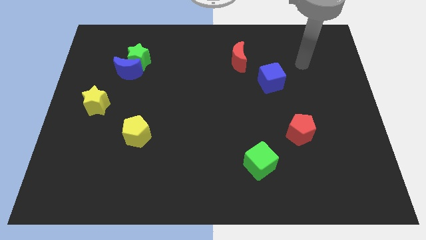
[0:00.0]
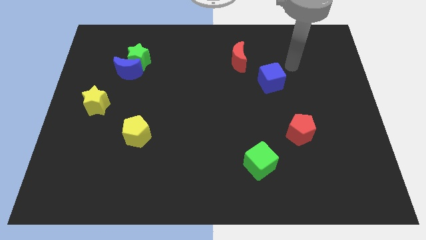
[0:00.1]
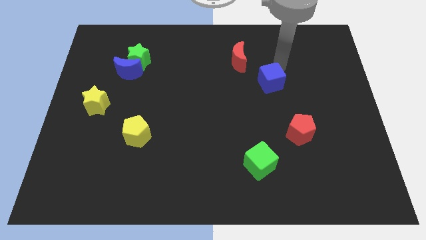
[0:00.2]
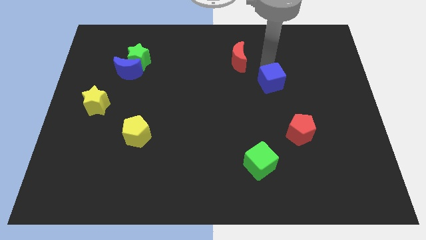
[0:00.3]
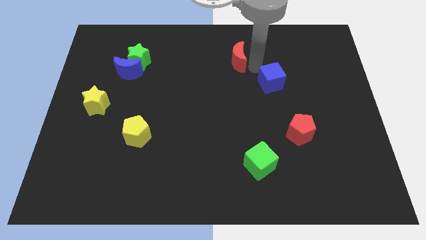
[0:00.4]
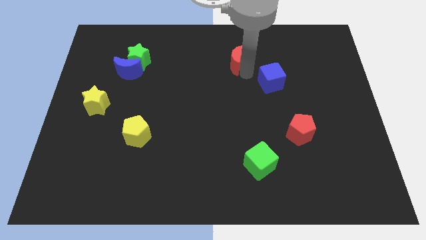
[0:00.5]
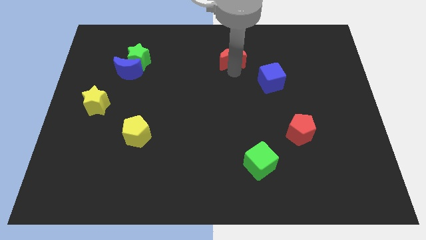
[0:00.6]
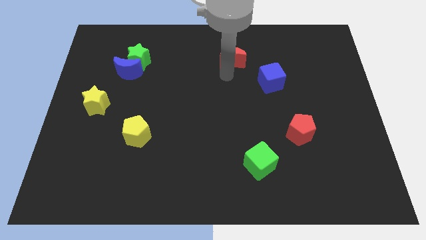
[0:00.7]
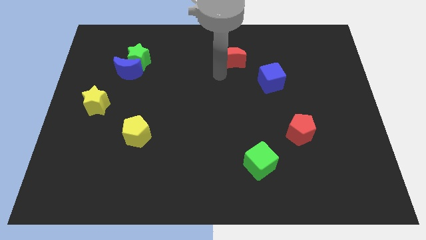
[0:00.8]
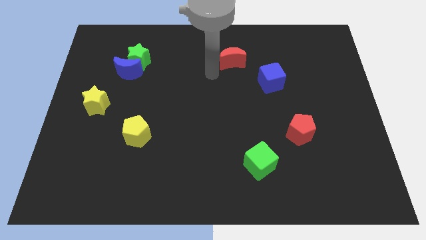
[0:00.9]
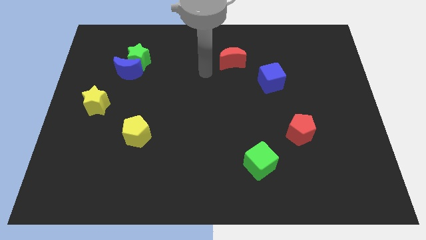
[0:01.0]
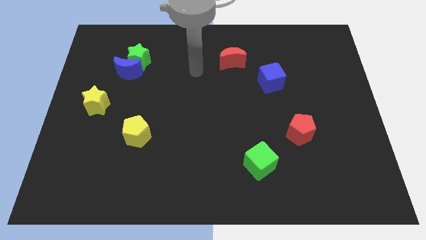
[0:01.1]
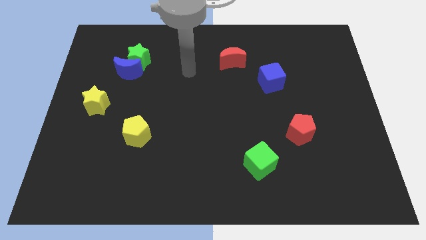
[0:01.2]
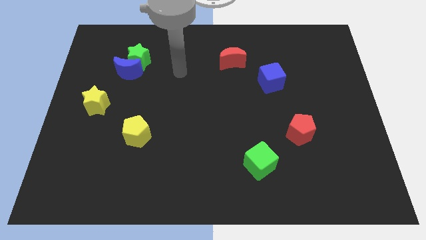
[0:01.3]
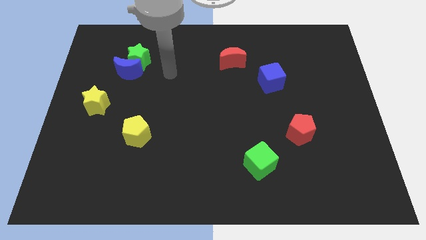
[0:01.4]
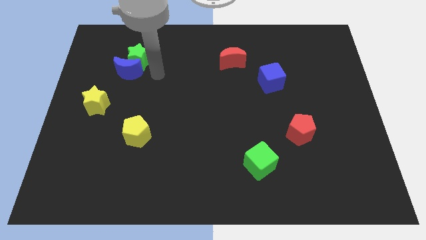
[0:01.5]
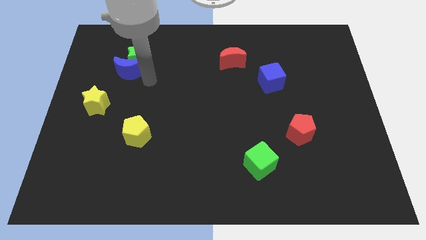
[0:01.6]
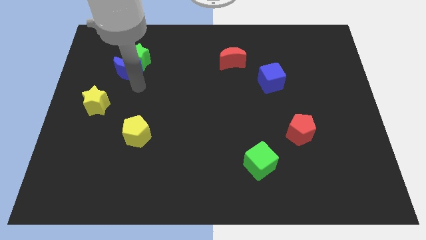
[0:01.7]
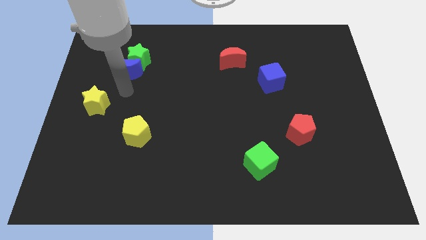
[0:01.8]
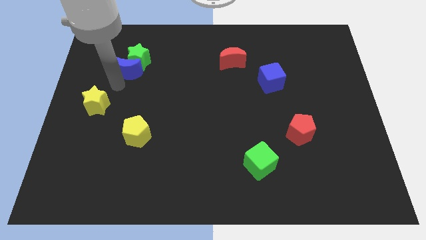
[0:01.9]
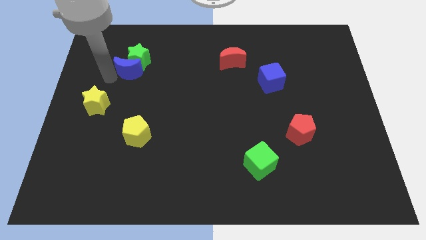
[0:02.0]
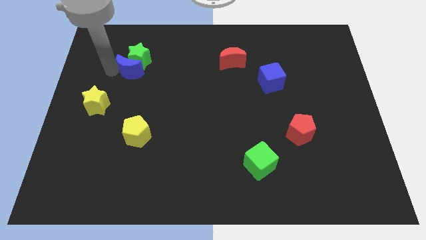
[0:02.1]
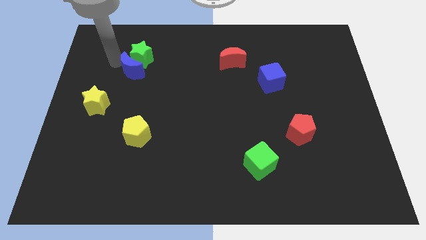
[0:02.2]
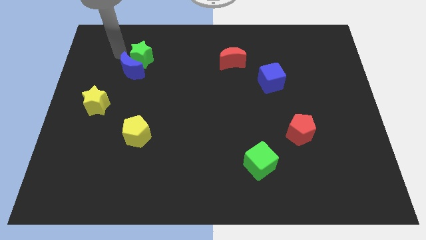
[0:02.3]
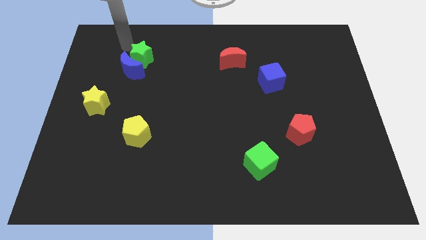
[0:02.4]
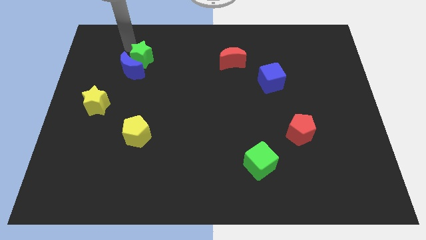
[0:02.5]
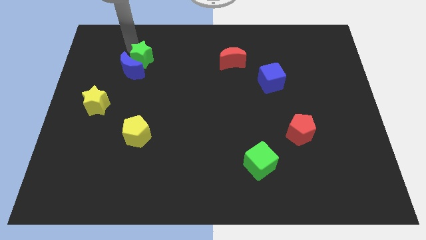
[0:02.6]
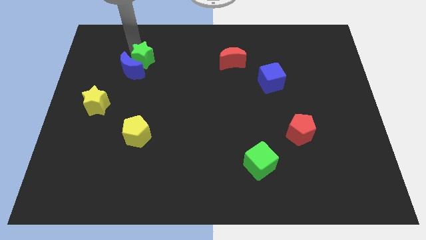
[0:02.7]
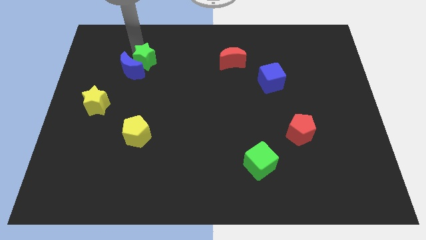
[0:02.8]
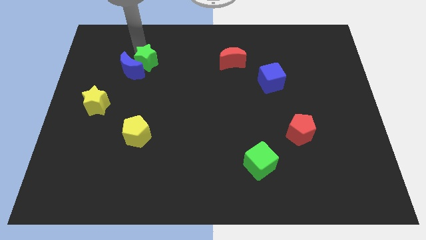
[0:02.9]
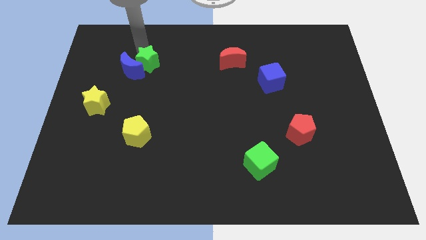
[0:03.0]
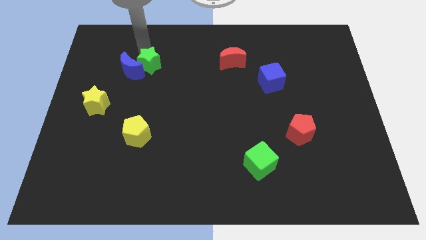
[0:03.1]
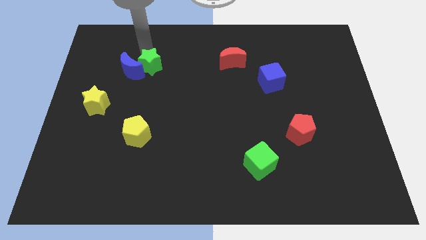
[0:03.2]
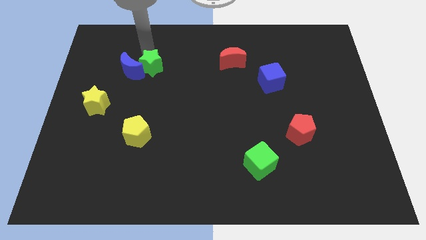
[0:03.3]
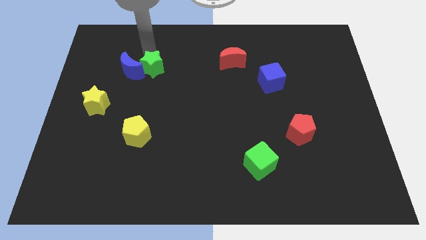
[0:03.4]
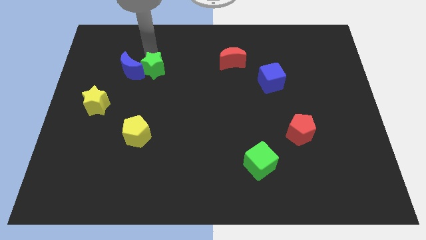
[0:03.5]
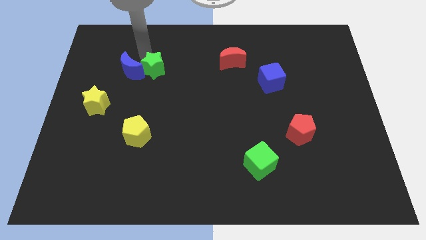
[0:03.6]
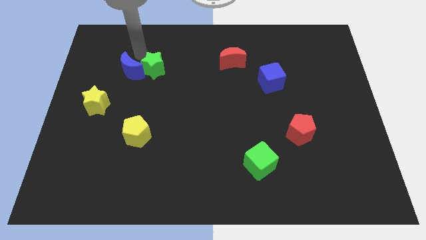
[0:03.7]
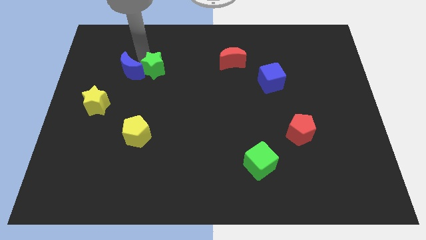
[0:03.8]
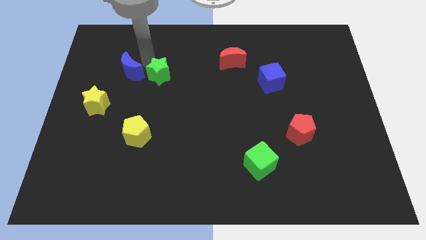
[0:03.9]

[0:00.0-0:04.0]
push the green star diagonally downwards and right a bit

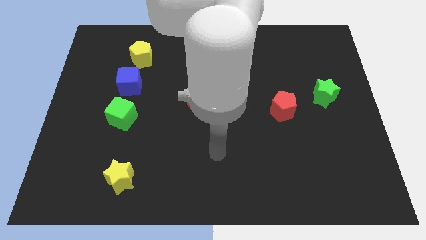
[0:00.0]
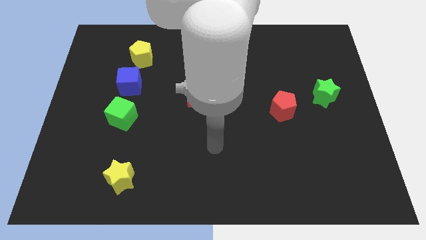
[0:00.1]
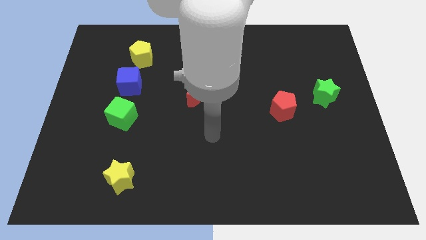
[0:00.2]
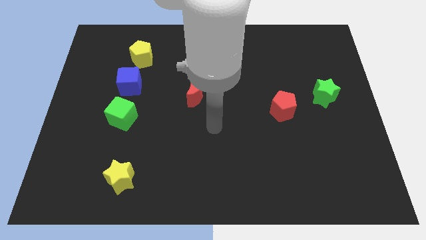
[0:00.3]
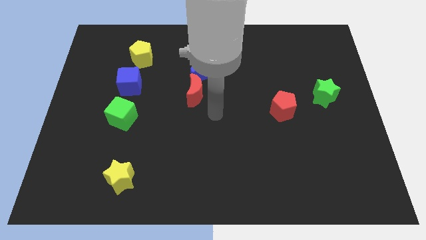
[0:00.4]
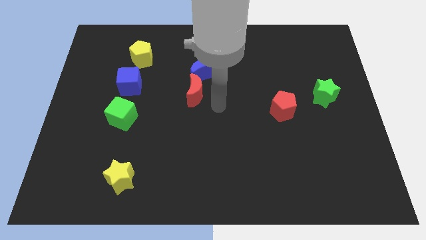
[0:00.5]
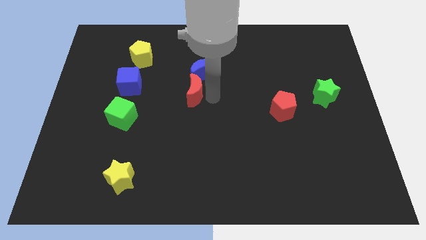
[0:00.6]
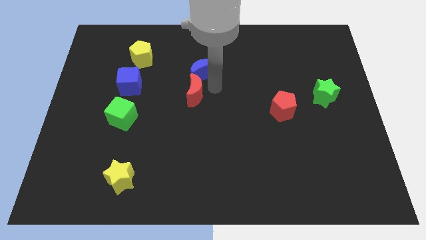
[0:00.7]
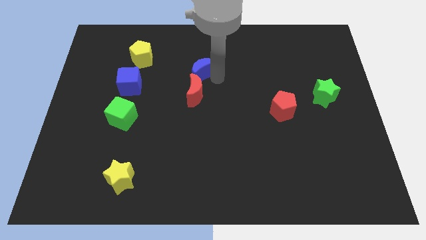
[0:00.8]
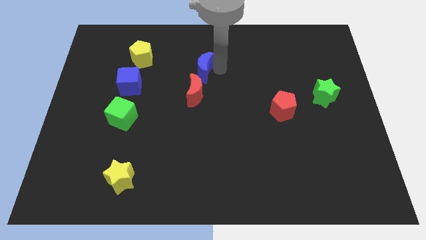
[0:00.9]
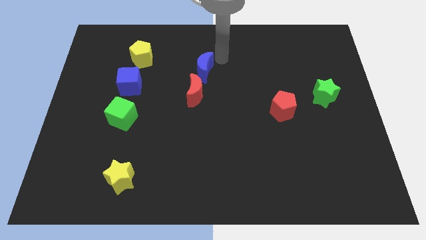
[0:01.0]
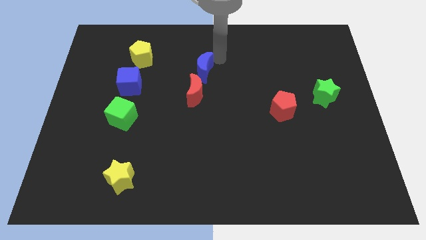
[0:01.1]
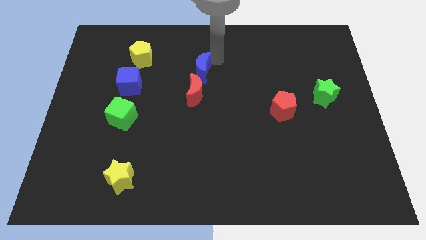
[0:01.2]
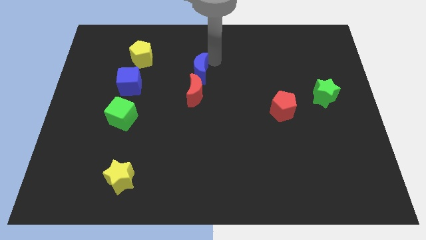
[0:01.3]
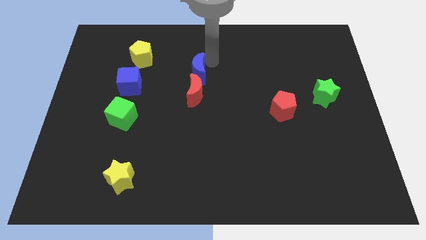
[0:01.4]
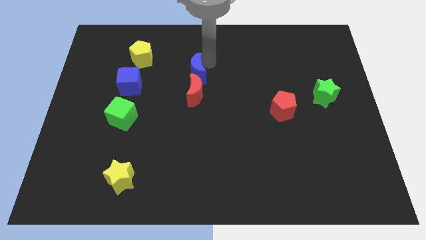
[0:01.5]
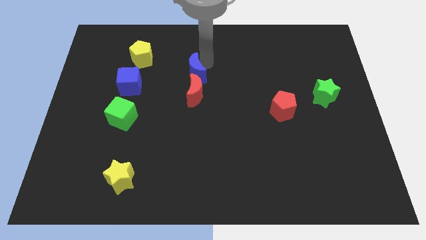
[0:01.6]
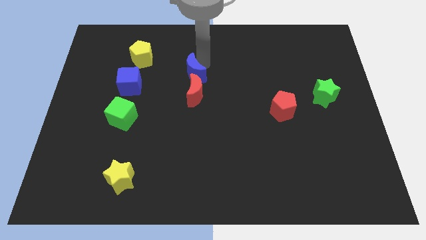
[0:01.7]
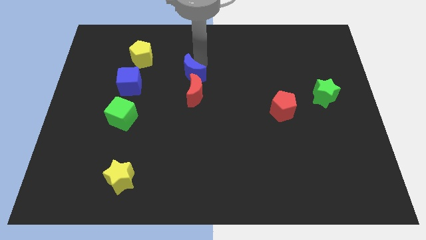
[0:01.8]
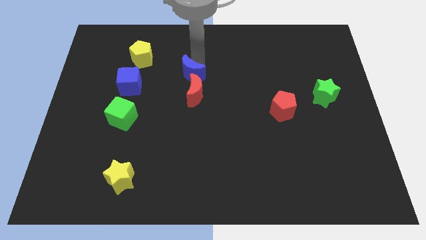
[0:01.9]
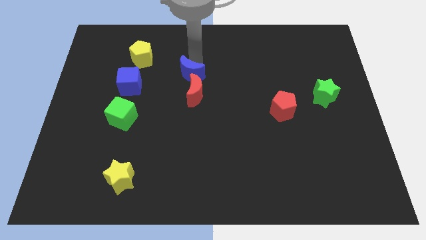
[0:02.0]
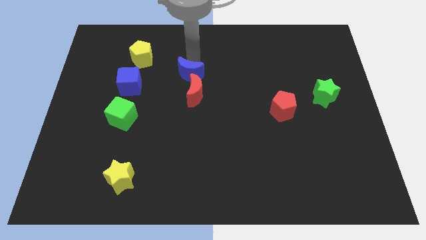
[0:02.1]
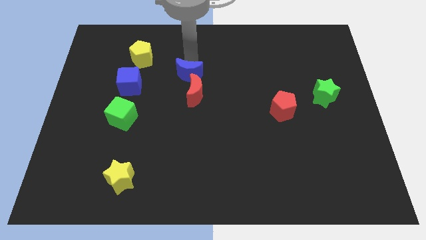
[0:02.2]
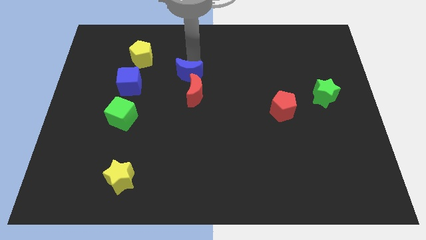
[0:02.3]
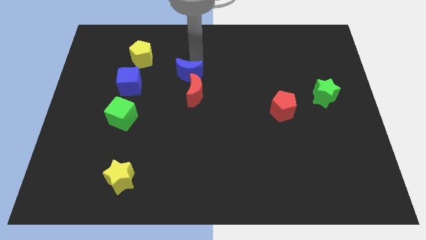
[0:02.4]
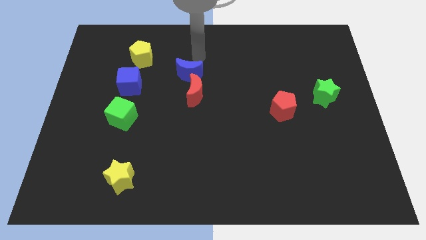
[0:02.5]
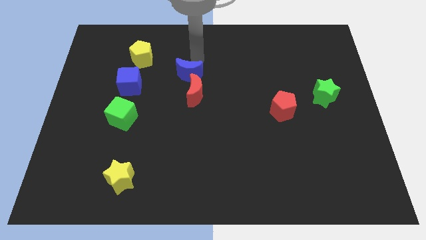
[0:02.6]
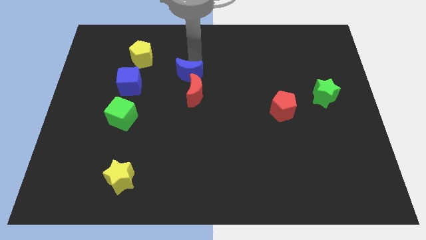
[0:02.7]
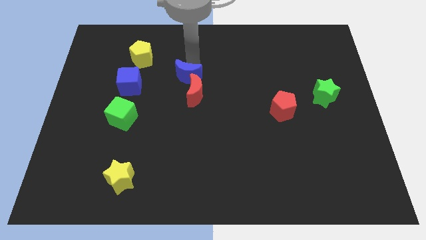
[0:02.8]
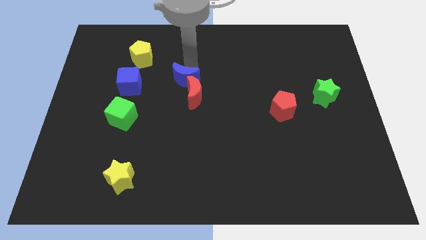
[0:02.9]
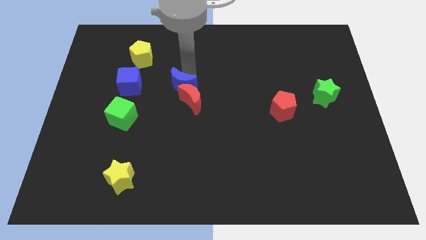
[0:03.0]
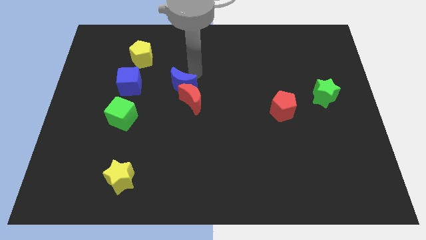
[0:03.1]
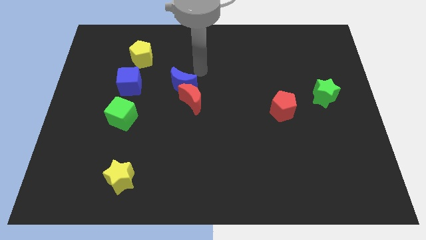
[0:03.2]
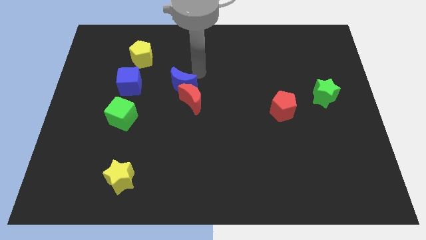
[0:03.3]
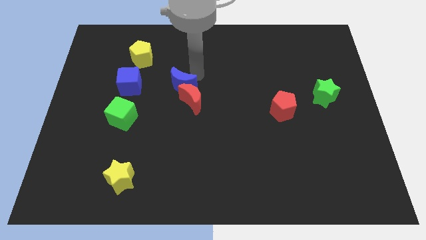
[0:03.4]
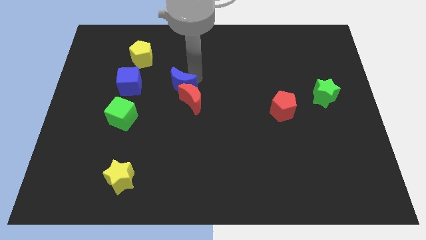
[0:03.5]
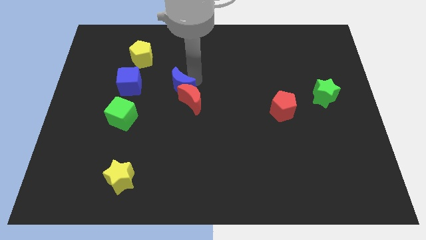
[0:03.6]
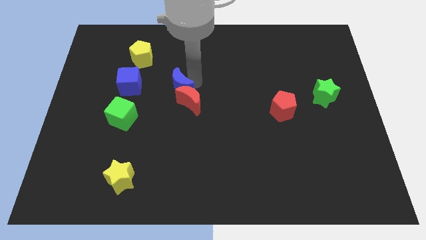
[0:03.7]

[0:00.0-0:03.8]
slightly slide the blue moon diagonally down and to the left

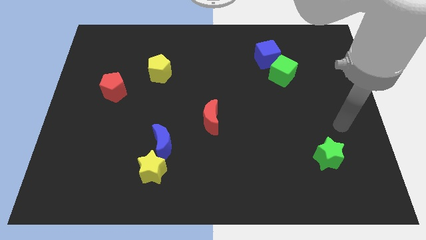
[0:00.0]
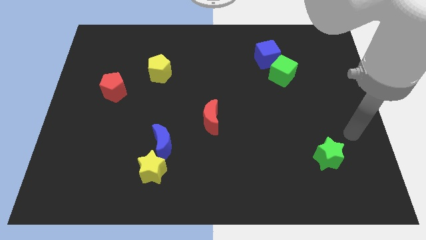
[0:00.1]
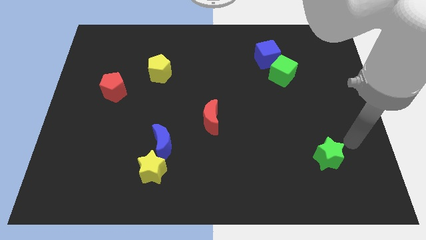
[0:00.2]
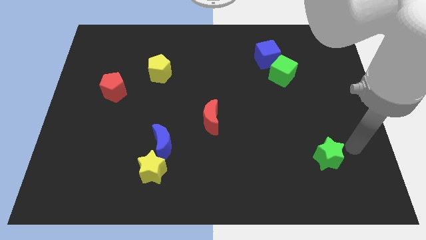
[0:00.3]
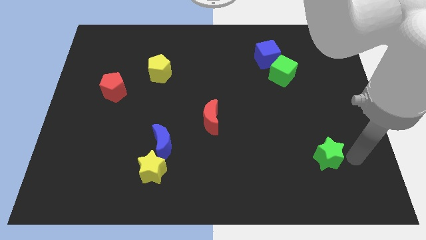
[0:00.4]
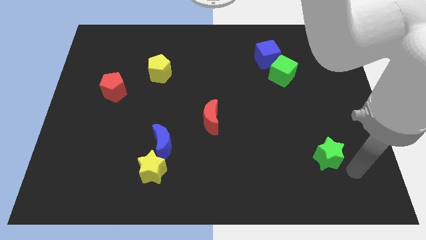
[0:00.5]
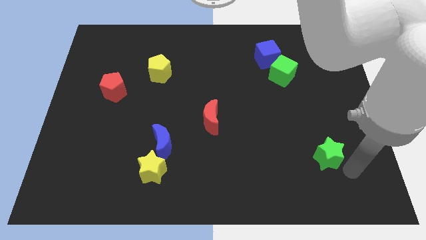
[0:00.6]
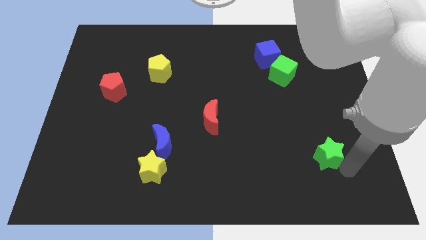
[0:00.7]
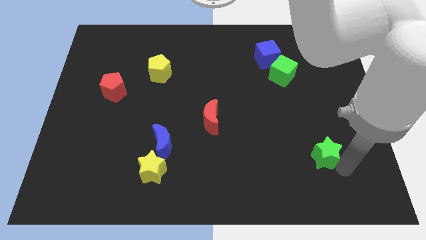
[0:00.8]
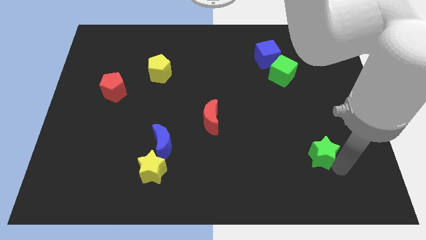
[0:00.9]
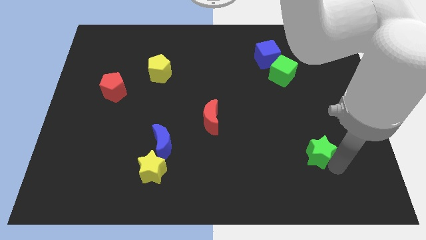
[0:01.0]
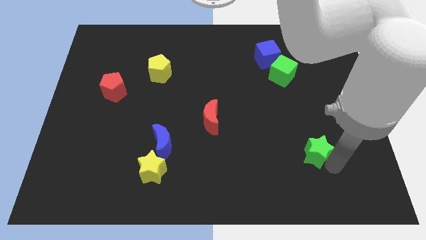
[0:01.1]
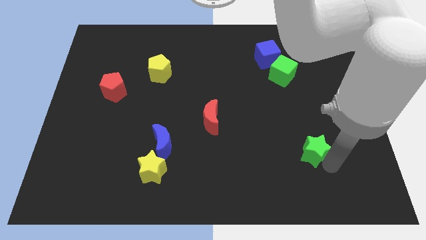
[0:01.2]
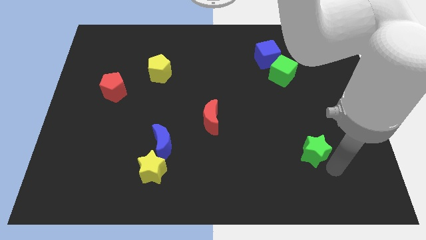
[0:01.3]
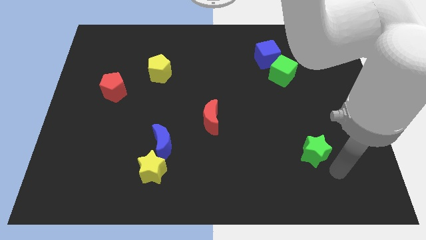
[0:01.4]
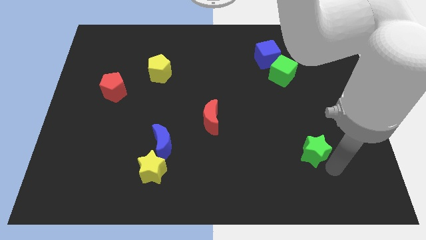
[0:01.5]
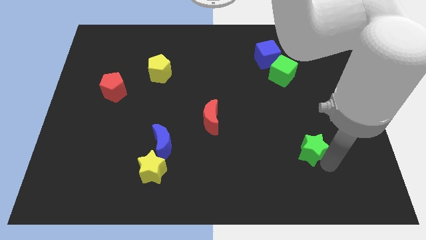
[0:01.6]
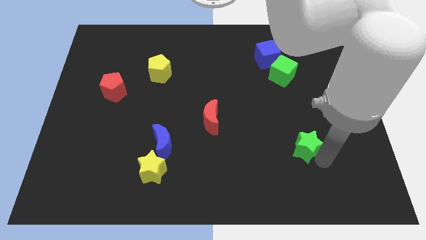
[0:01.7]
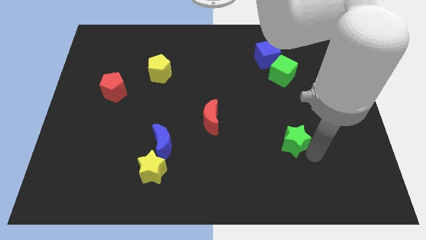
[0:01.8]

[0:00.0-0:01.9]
slightly move the green star diagonally up and to the left
